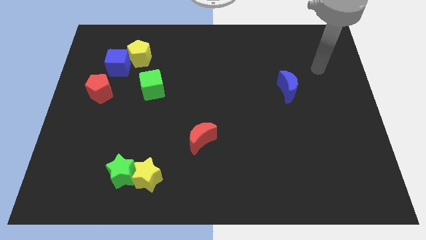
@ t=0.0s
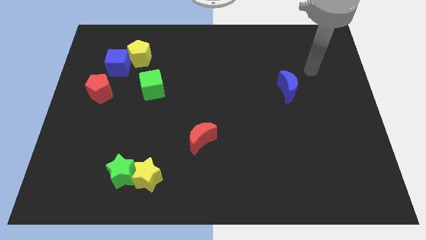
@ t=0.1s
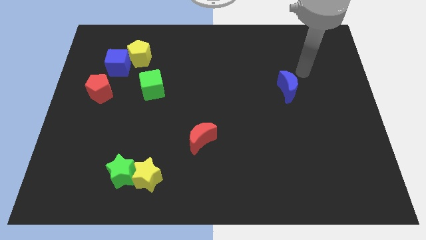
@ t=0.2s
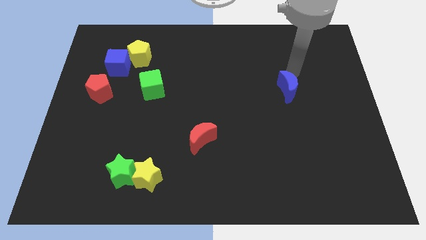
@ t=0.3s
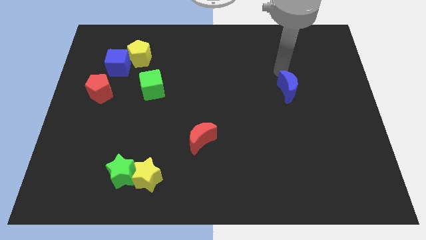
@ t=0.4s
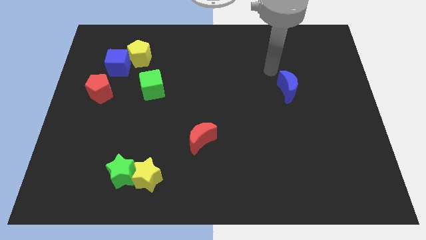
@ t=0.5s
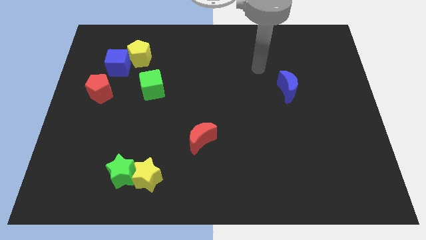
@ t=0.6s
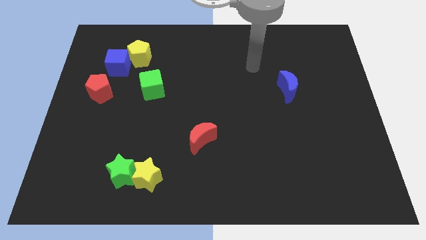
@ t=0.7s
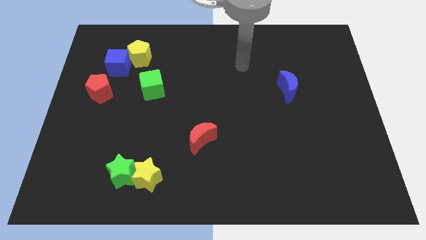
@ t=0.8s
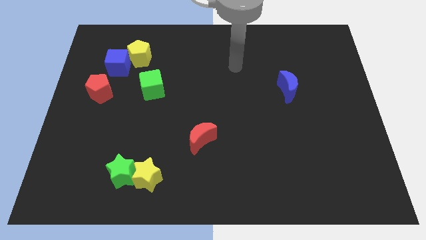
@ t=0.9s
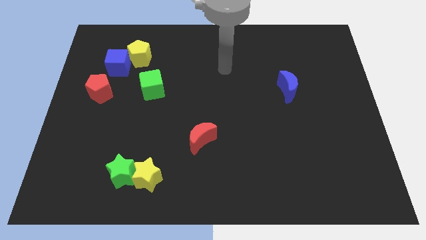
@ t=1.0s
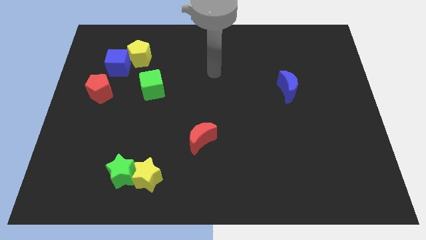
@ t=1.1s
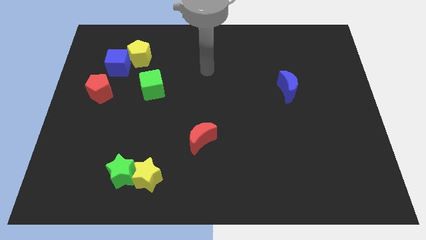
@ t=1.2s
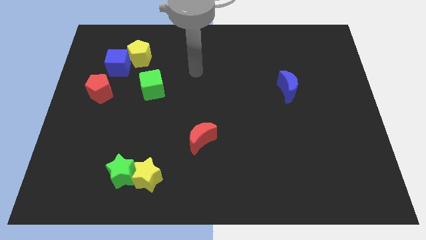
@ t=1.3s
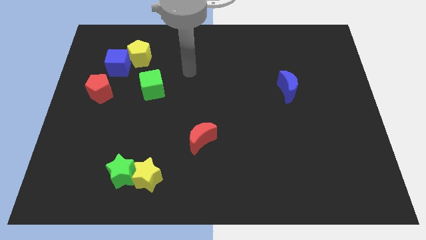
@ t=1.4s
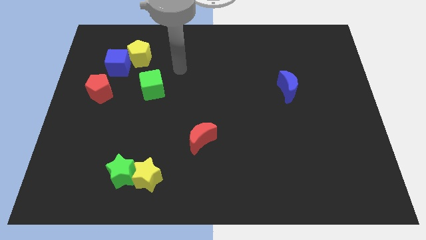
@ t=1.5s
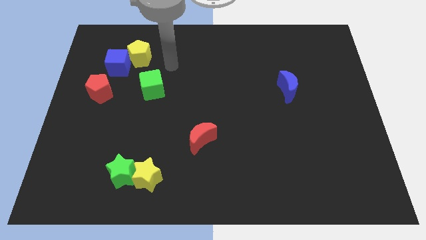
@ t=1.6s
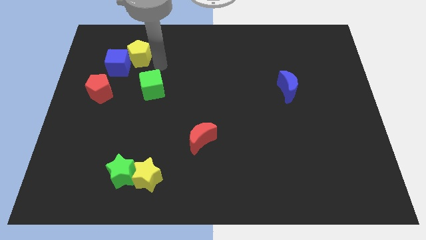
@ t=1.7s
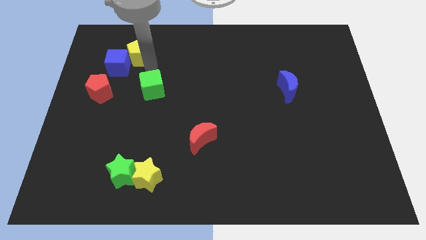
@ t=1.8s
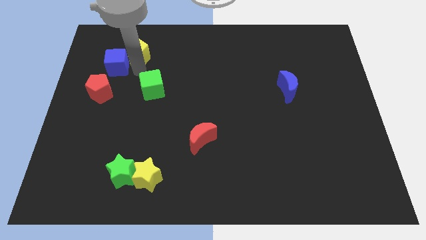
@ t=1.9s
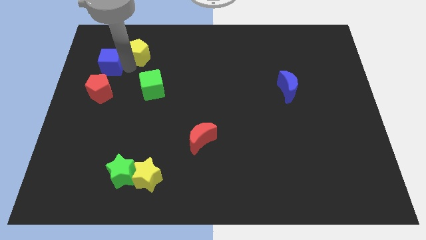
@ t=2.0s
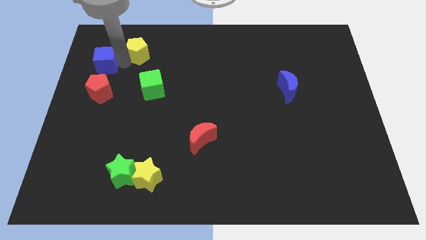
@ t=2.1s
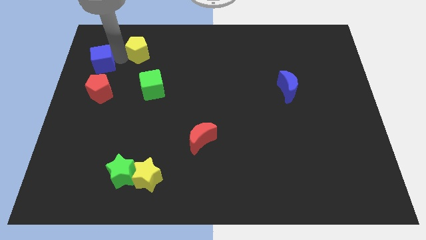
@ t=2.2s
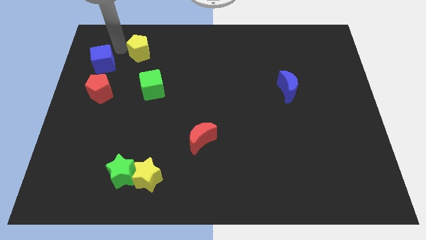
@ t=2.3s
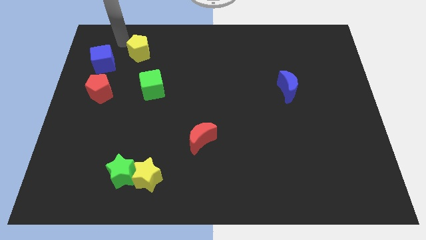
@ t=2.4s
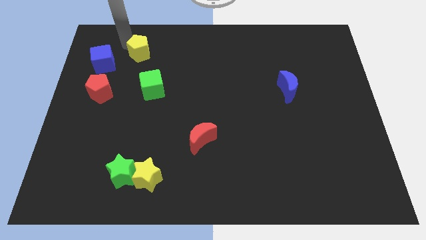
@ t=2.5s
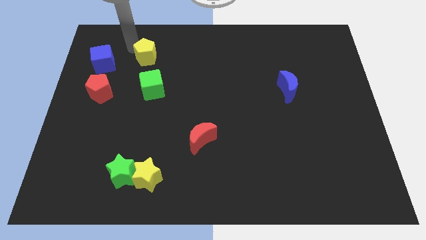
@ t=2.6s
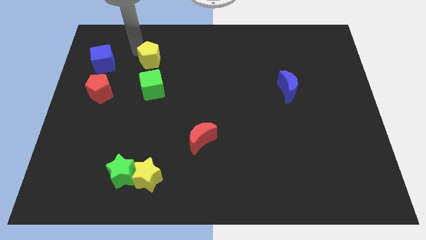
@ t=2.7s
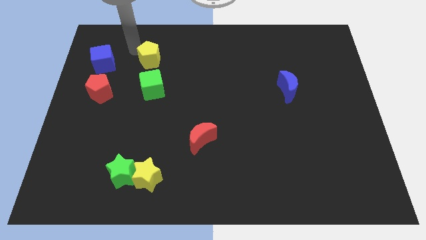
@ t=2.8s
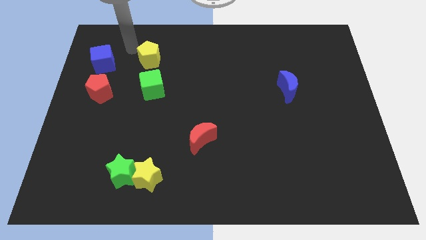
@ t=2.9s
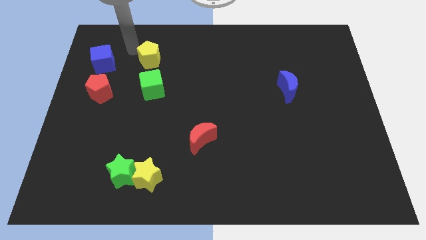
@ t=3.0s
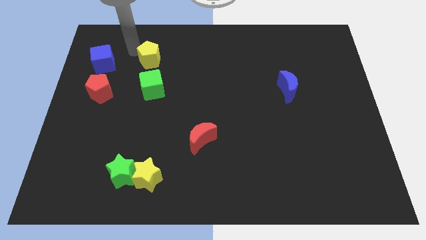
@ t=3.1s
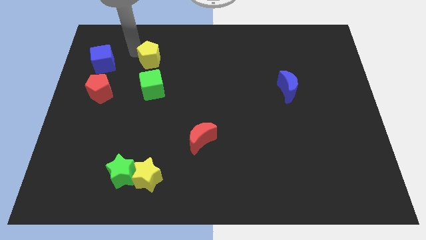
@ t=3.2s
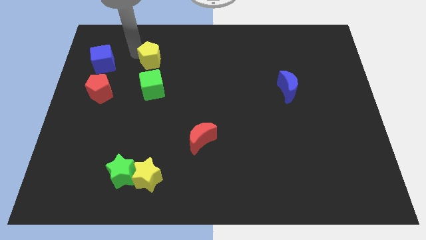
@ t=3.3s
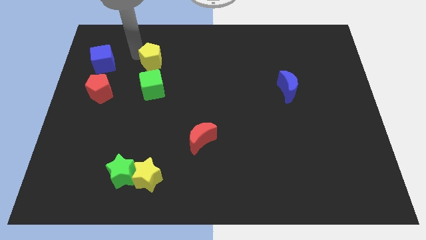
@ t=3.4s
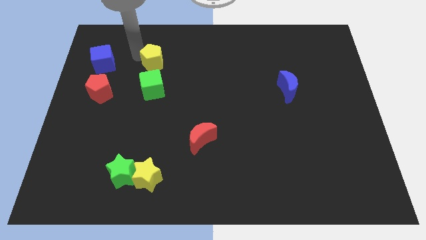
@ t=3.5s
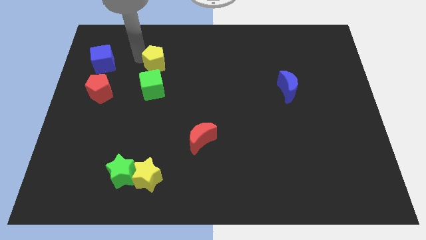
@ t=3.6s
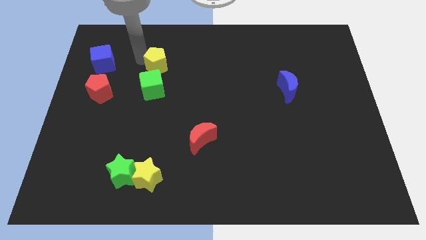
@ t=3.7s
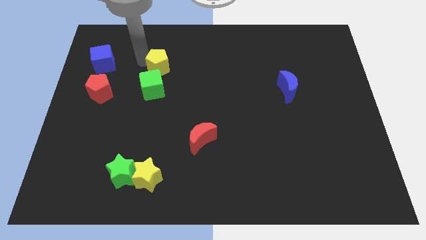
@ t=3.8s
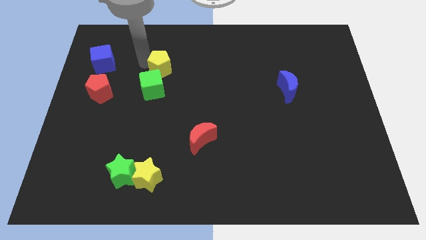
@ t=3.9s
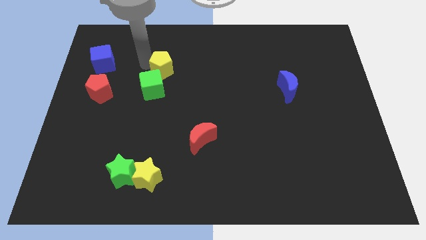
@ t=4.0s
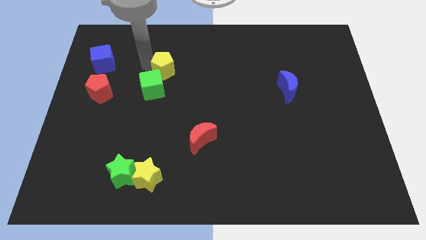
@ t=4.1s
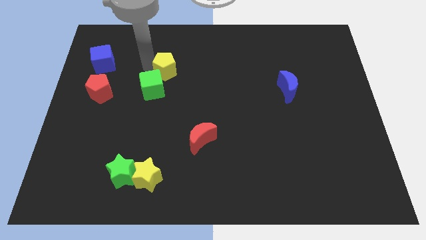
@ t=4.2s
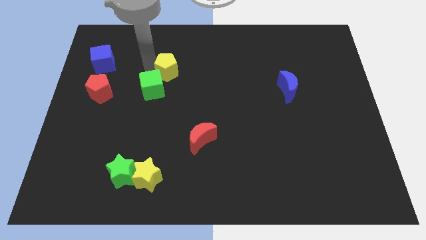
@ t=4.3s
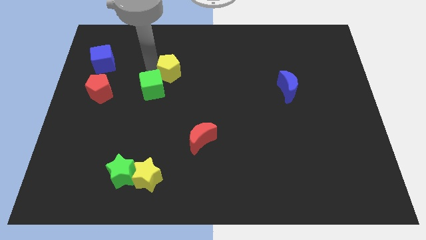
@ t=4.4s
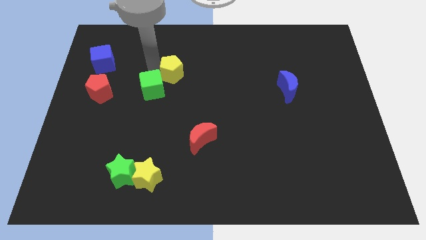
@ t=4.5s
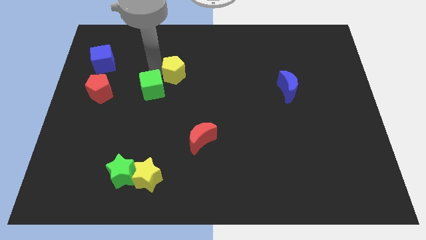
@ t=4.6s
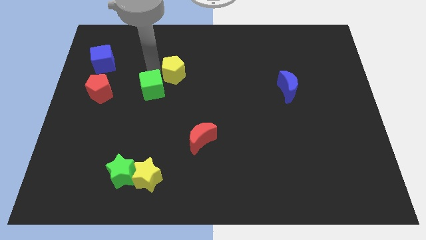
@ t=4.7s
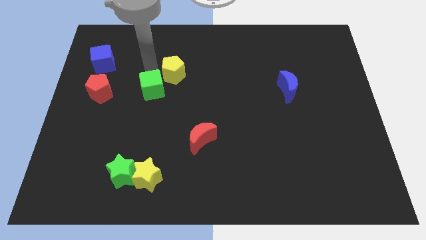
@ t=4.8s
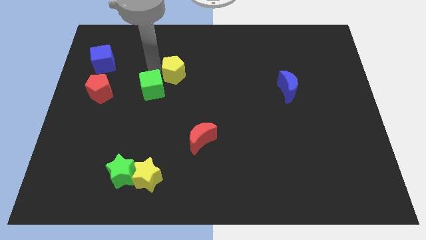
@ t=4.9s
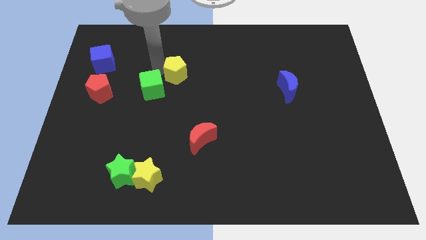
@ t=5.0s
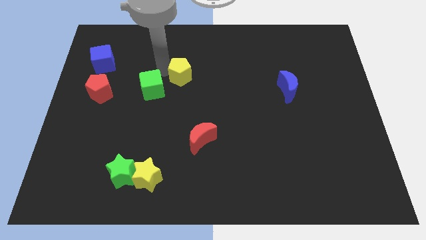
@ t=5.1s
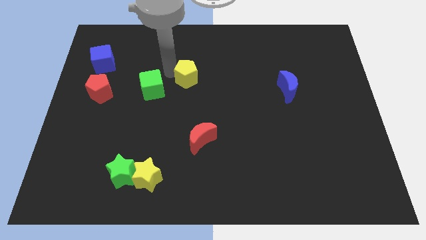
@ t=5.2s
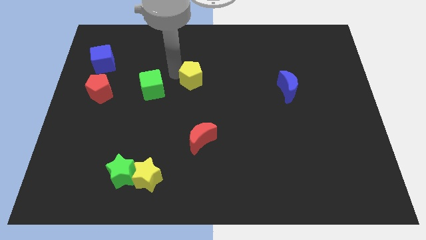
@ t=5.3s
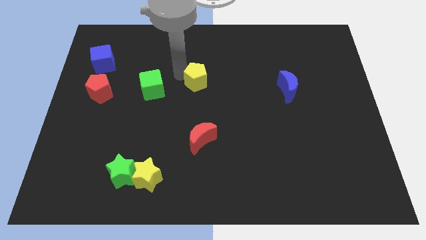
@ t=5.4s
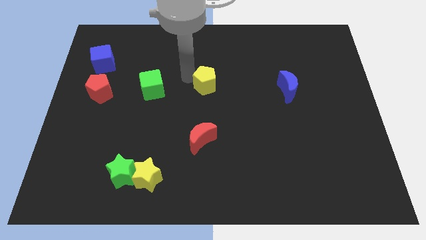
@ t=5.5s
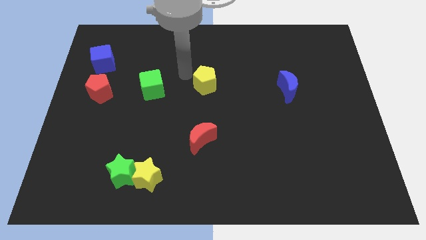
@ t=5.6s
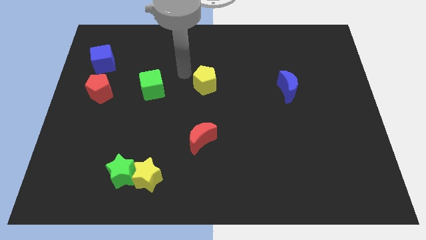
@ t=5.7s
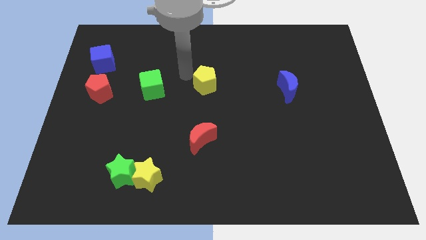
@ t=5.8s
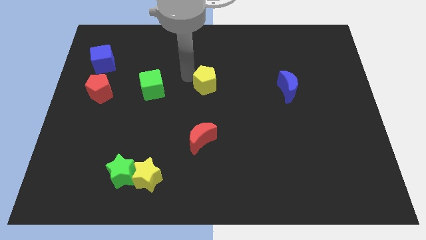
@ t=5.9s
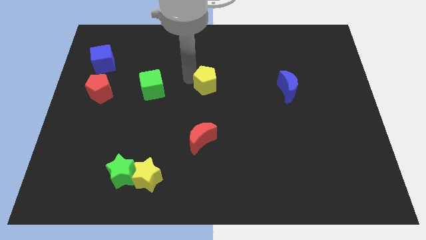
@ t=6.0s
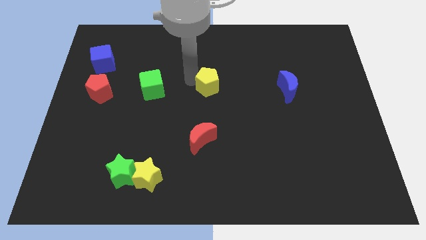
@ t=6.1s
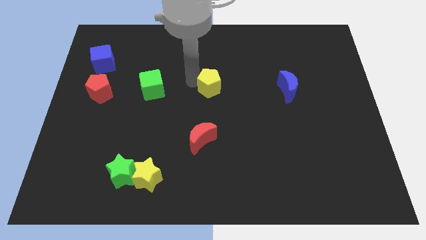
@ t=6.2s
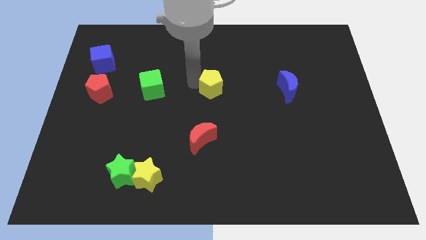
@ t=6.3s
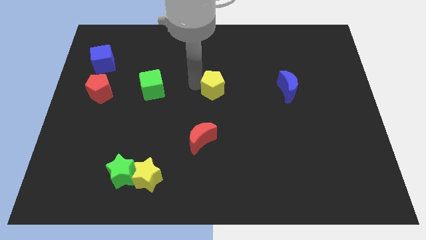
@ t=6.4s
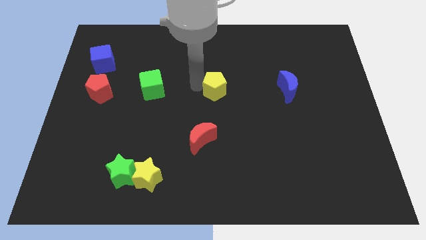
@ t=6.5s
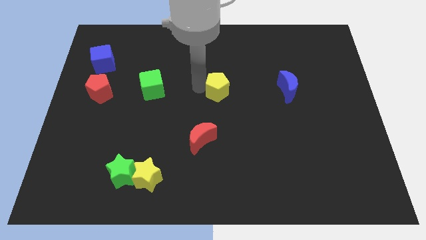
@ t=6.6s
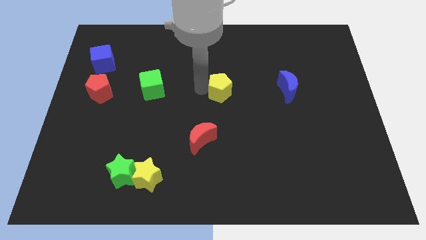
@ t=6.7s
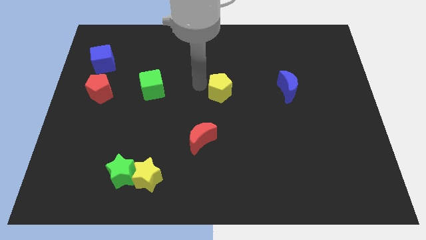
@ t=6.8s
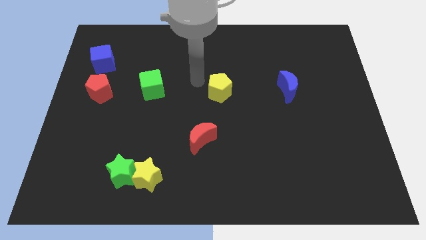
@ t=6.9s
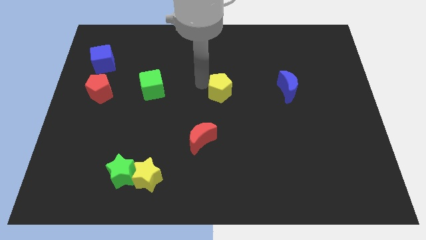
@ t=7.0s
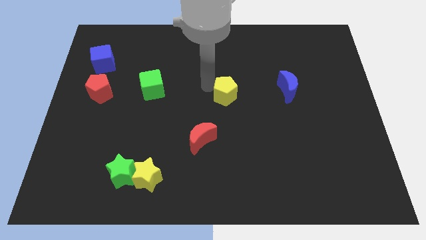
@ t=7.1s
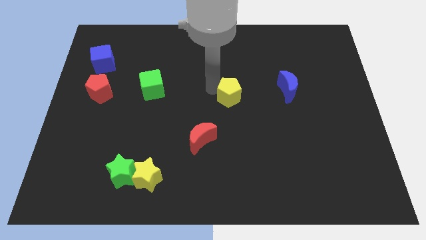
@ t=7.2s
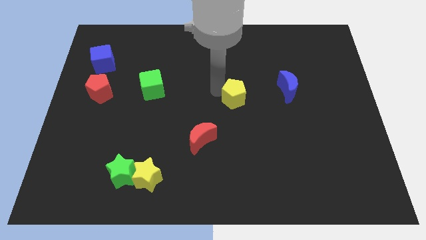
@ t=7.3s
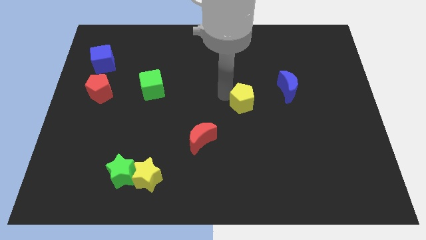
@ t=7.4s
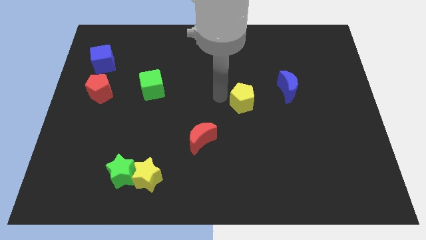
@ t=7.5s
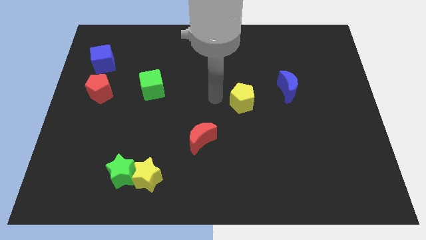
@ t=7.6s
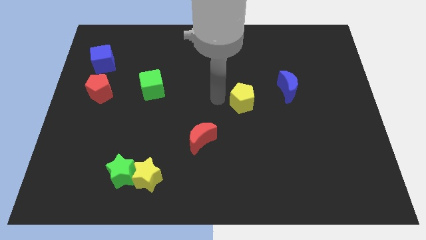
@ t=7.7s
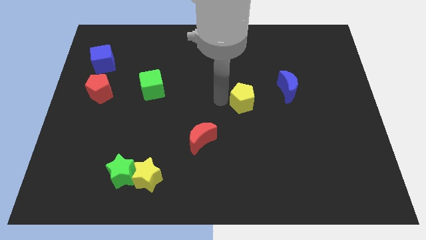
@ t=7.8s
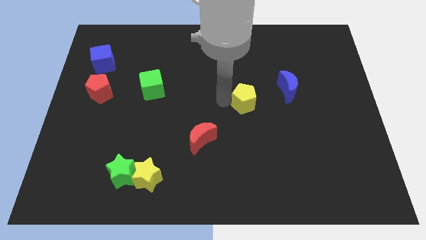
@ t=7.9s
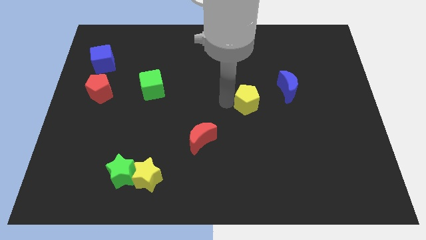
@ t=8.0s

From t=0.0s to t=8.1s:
put the yellow pentagon to the bottom left side of the blue moon
